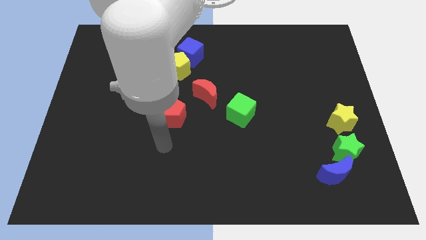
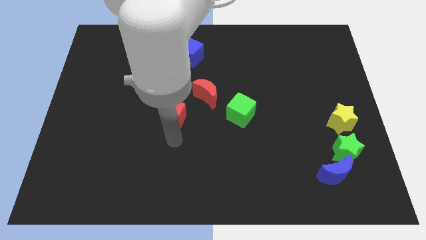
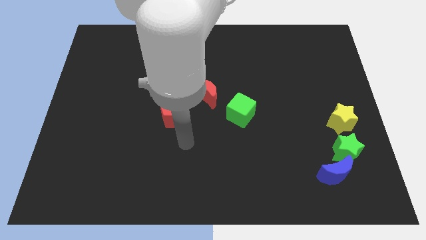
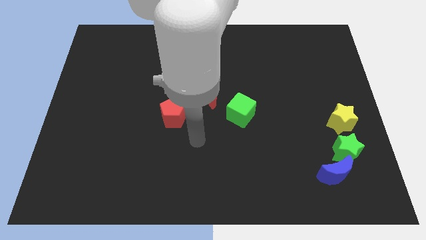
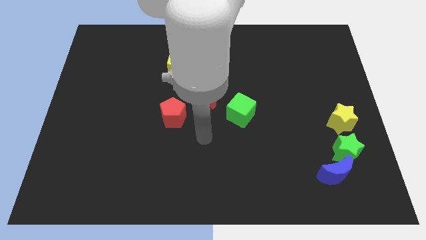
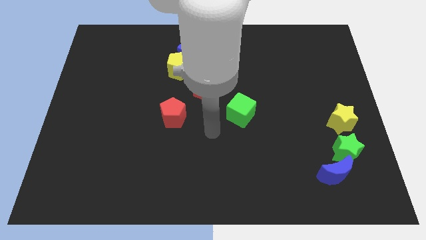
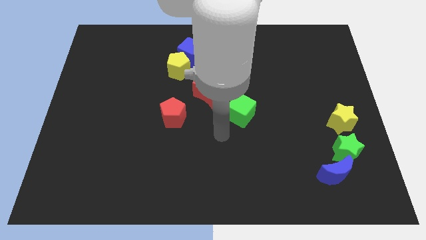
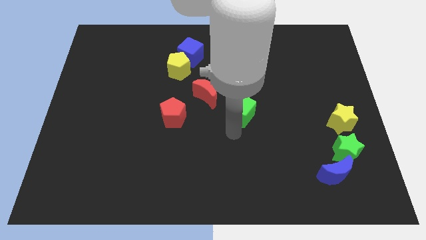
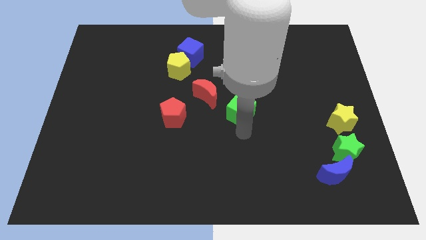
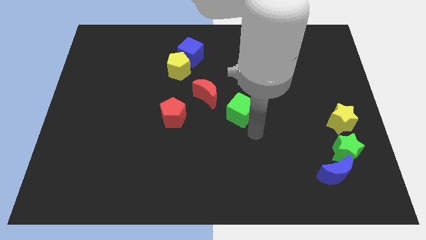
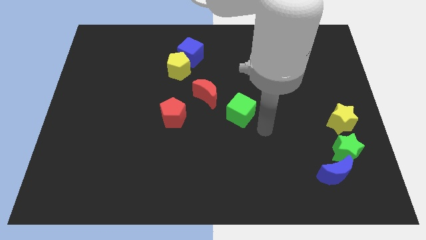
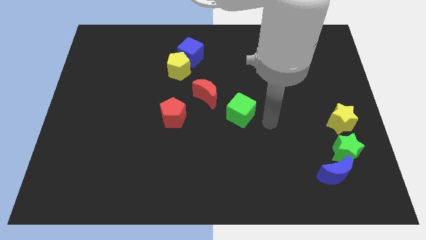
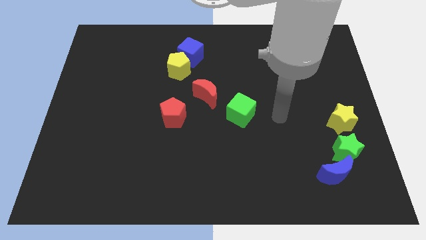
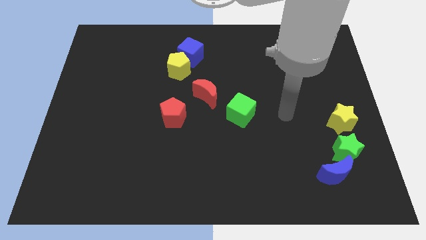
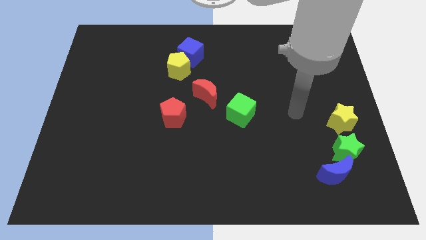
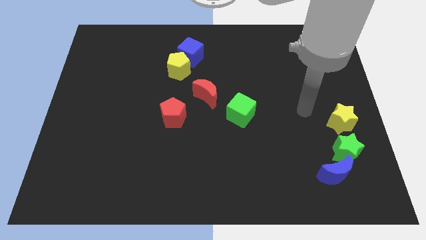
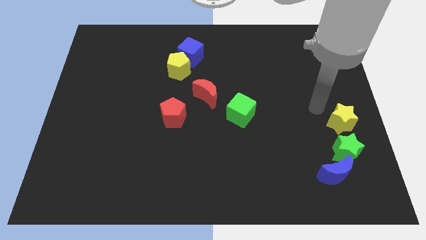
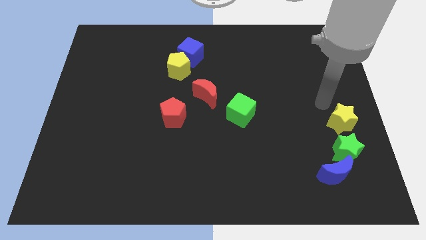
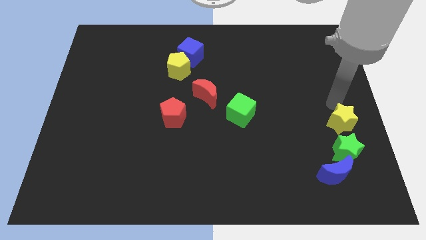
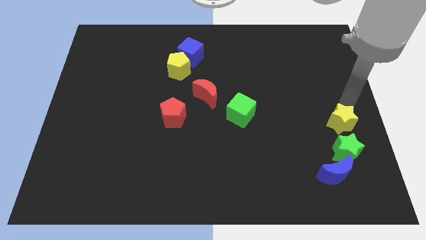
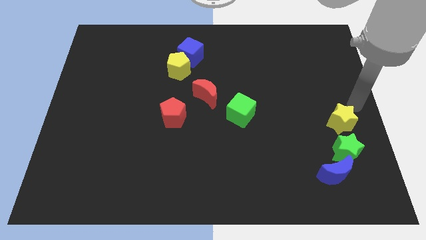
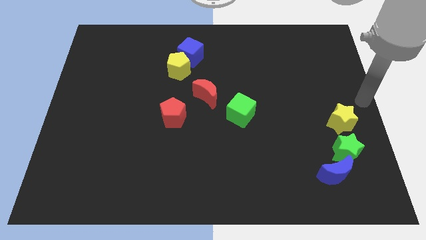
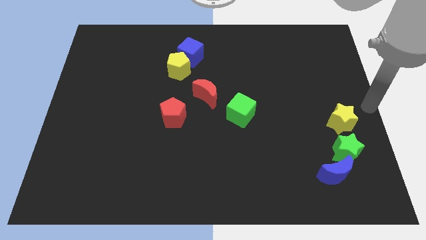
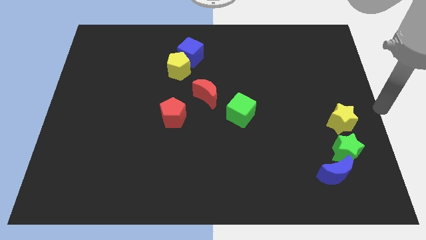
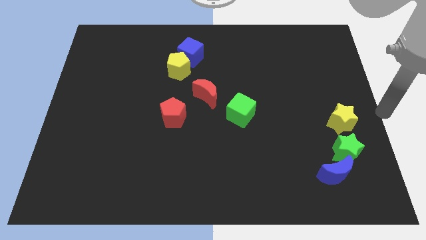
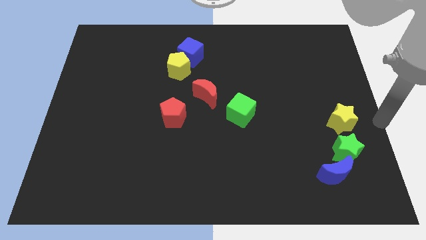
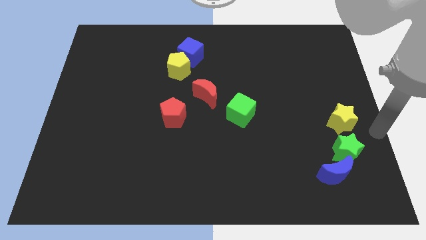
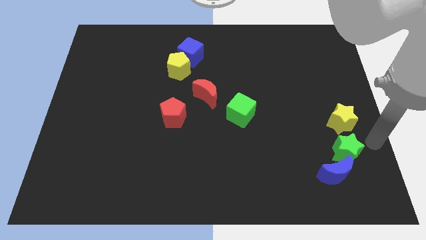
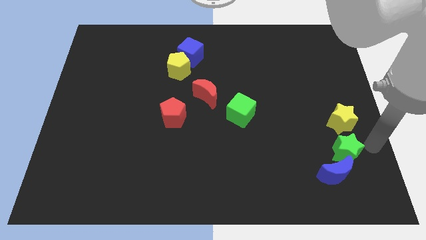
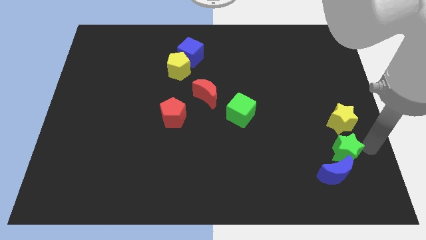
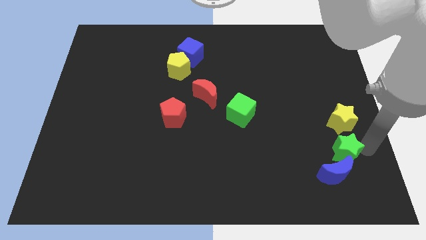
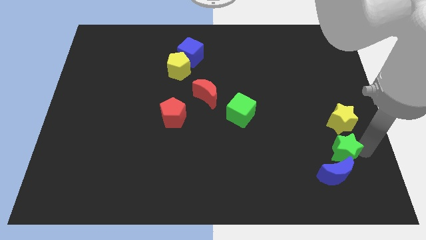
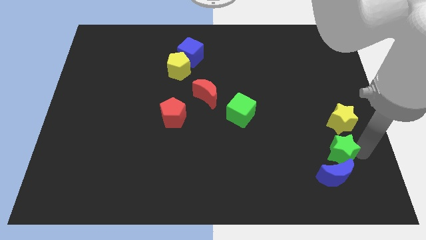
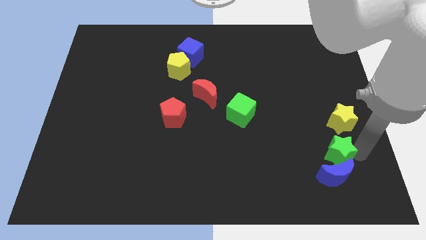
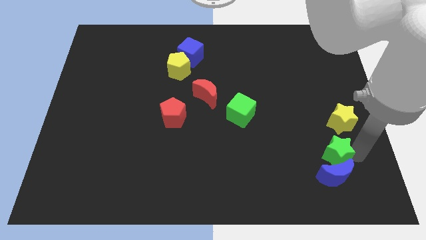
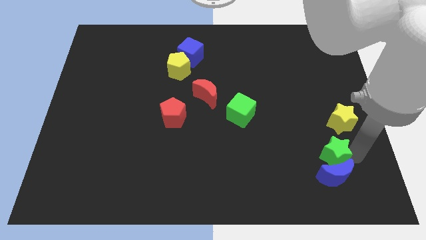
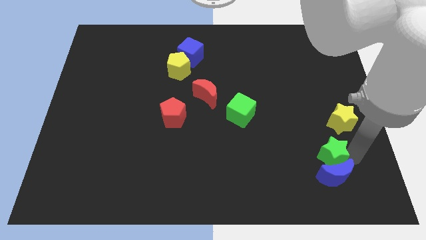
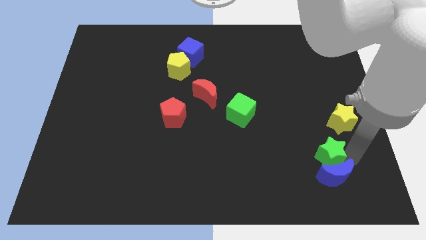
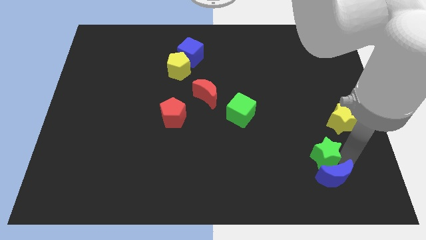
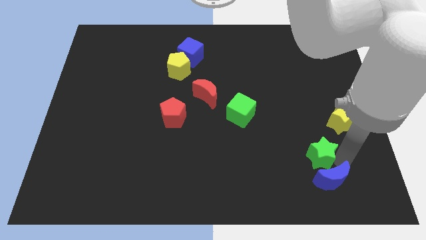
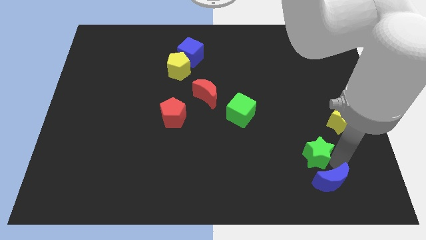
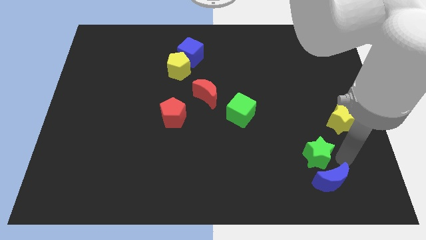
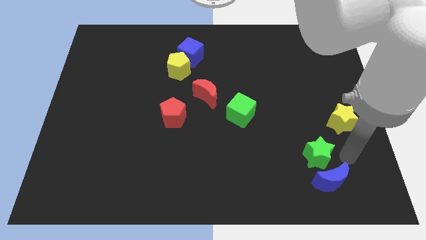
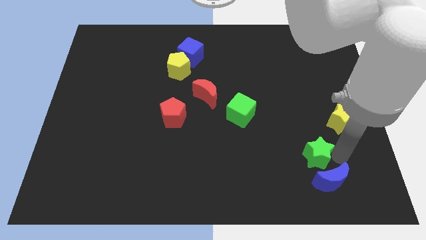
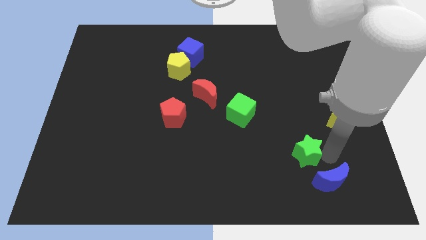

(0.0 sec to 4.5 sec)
slightly move the green star to the left

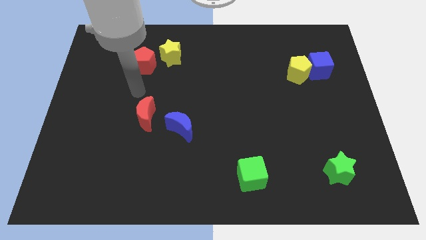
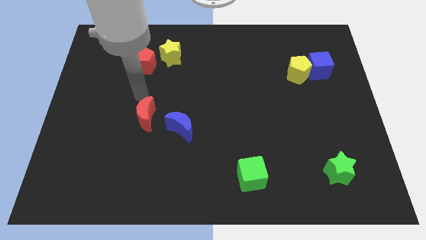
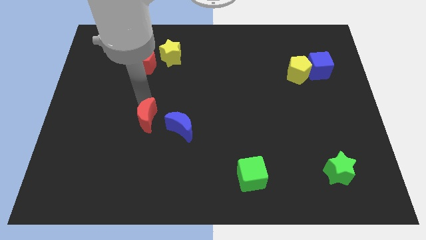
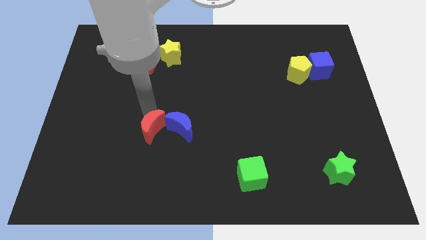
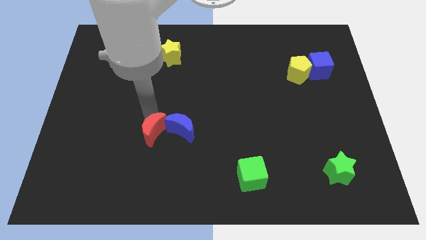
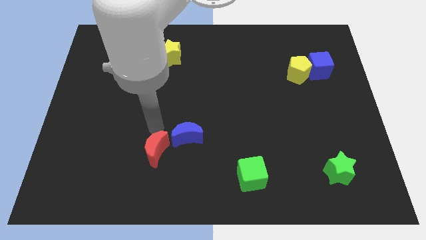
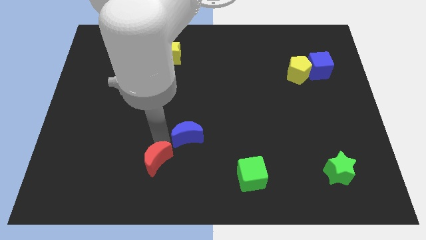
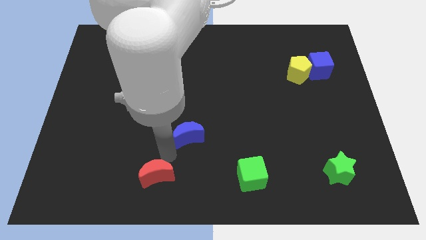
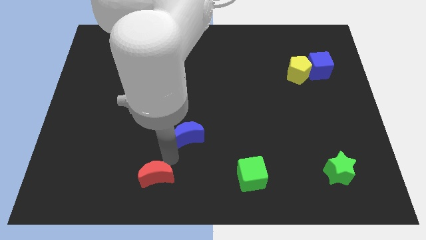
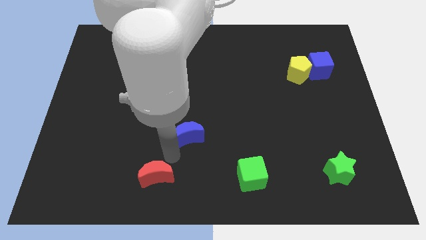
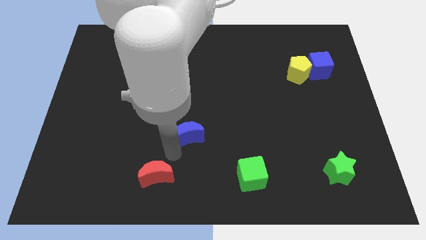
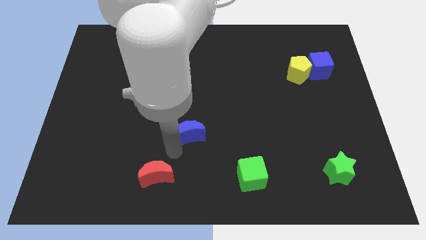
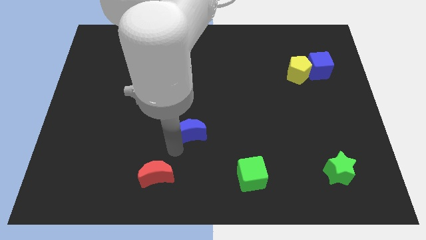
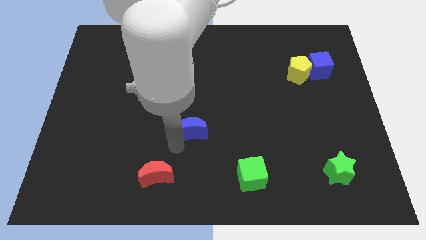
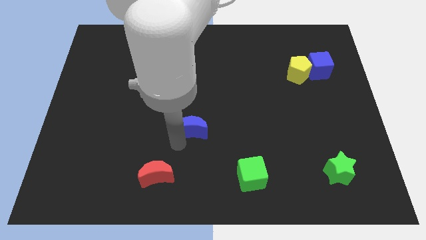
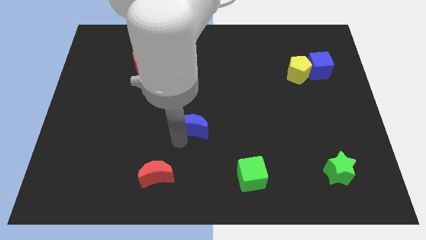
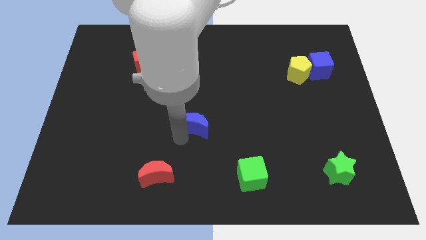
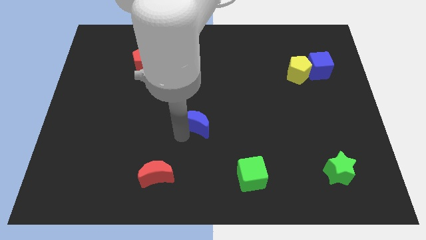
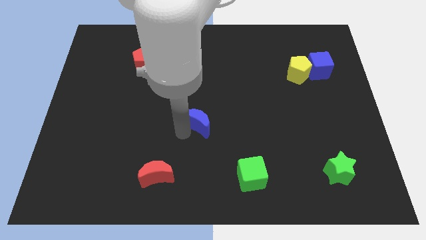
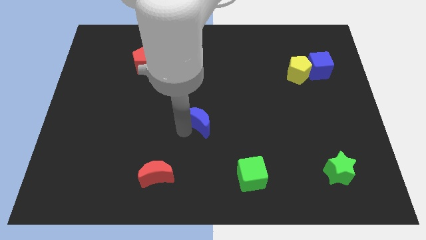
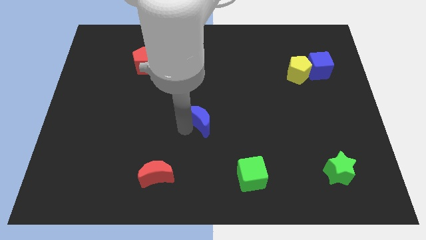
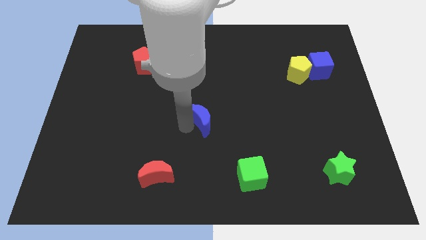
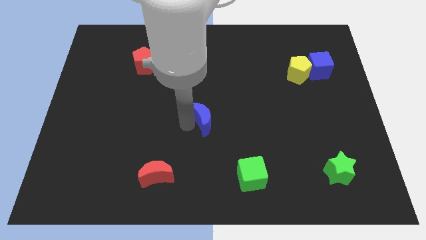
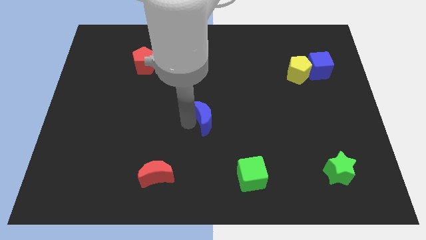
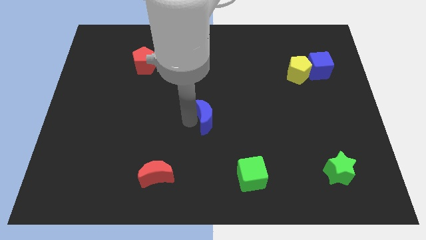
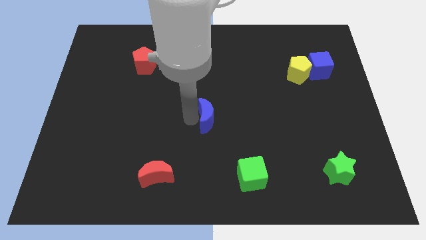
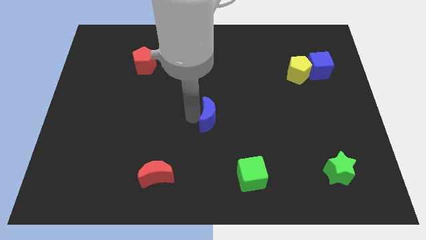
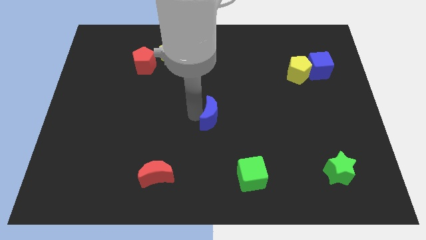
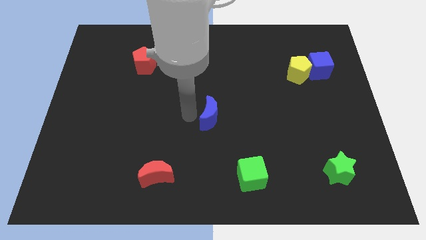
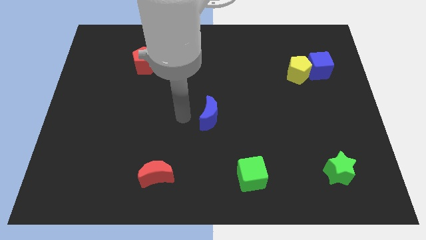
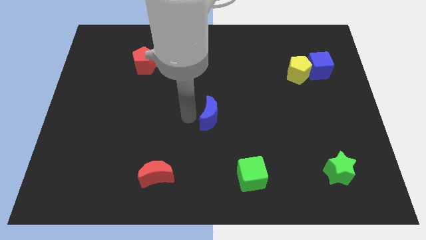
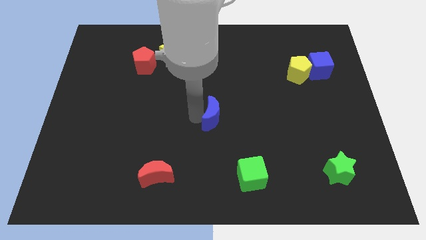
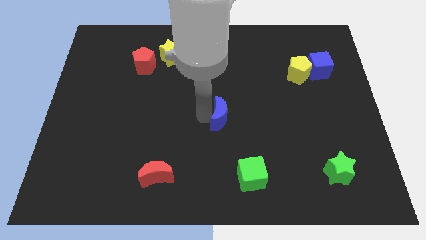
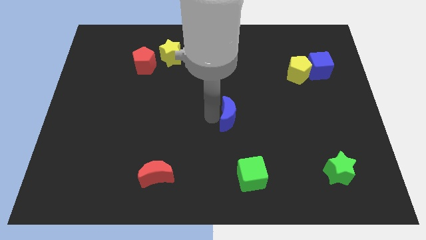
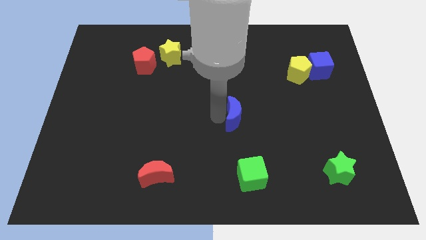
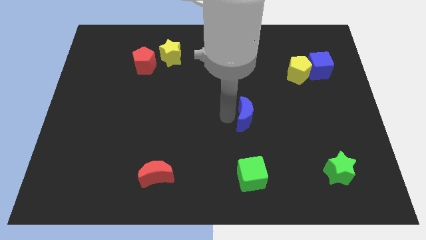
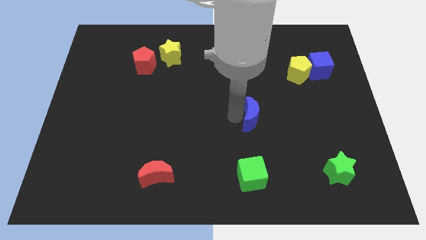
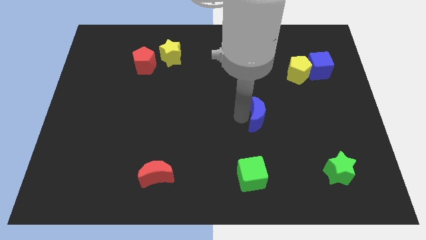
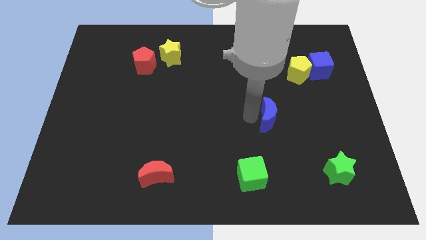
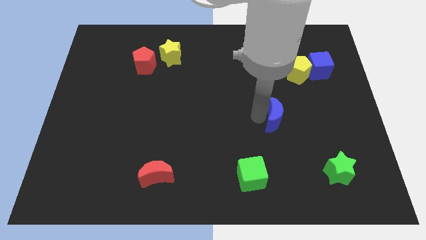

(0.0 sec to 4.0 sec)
push the blue moon to the right
